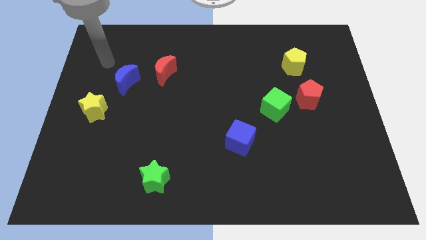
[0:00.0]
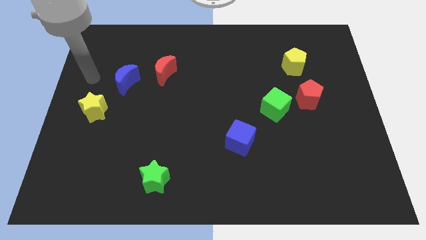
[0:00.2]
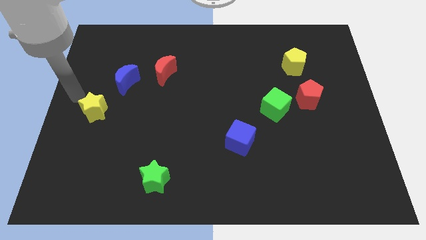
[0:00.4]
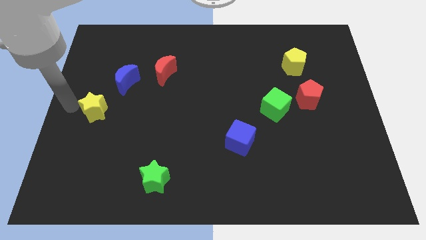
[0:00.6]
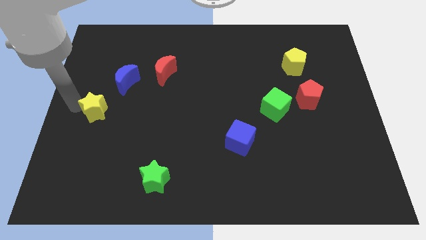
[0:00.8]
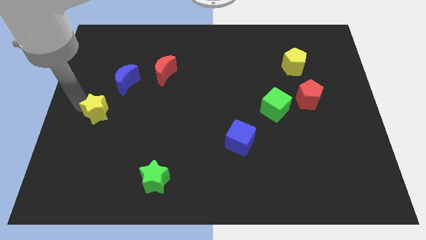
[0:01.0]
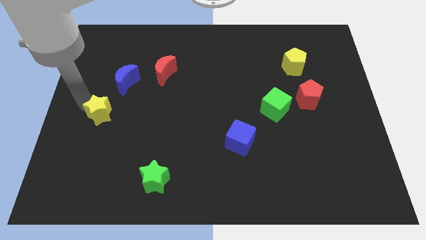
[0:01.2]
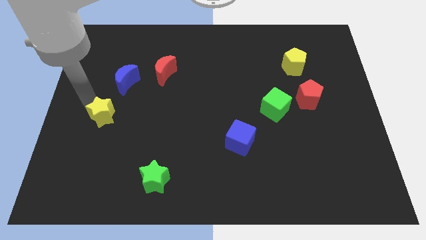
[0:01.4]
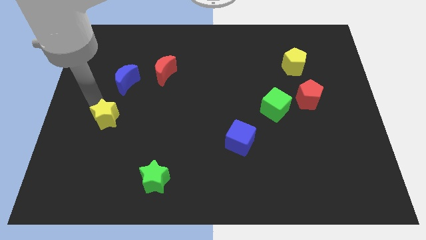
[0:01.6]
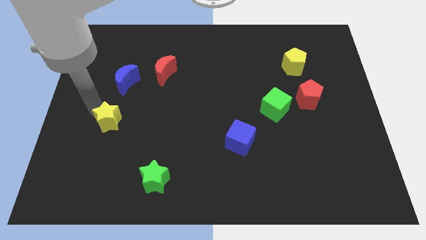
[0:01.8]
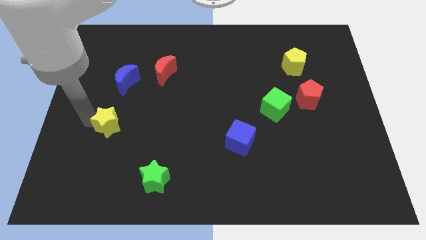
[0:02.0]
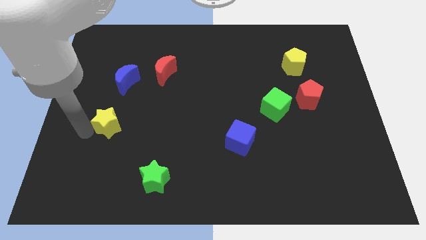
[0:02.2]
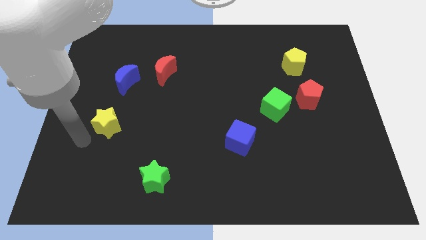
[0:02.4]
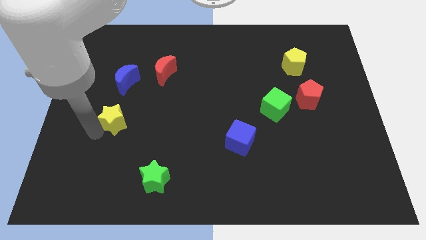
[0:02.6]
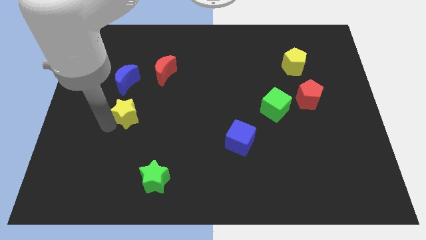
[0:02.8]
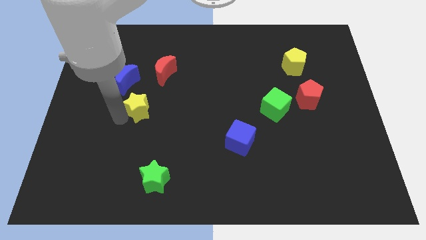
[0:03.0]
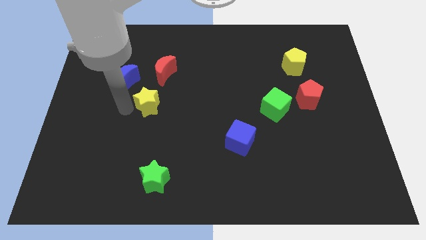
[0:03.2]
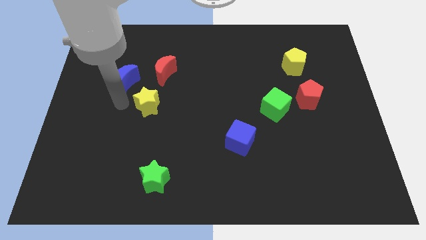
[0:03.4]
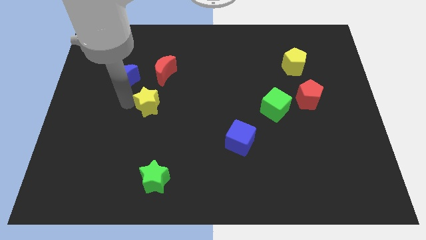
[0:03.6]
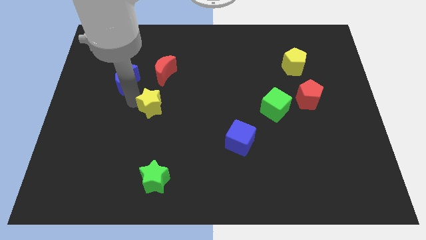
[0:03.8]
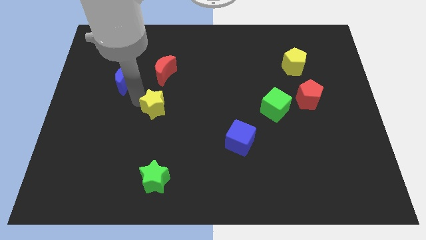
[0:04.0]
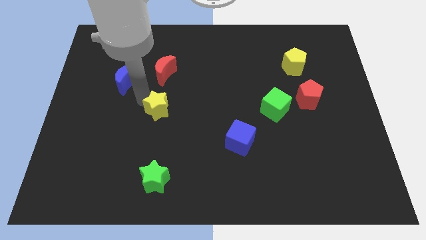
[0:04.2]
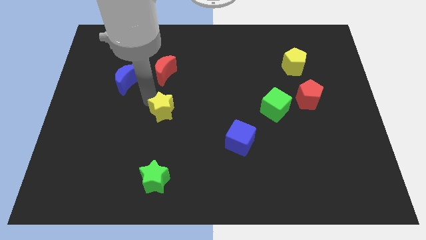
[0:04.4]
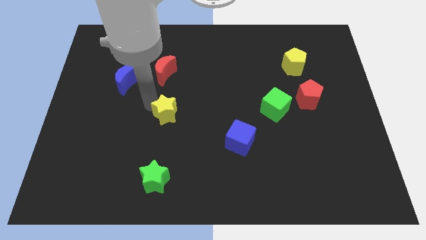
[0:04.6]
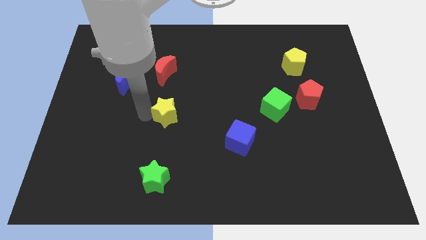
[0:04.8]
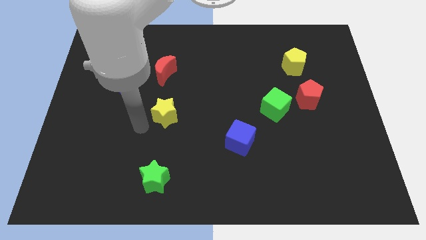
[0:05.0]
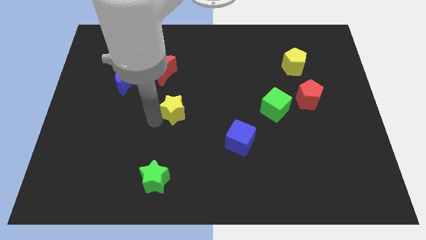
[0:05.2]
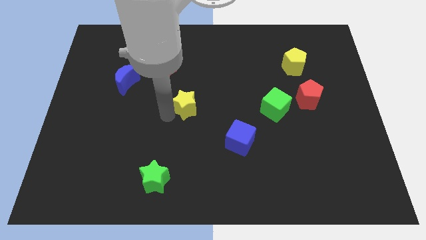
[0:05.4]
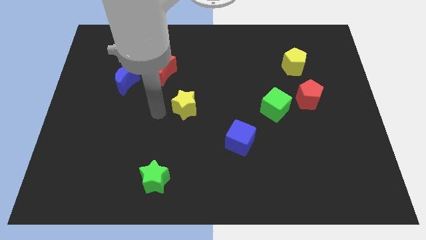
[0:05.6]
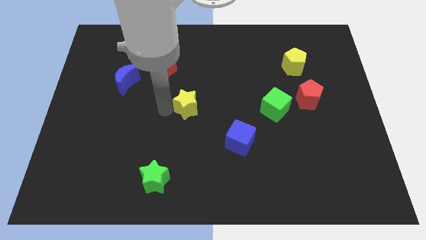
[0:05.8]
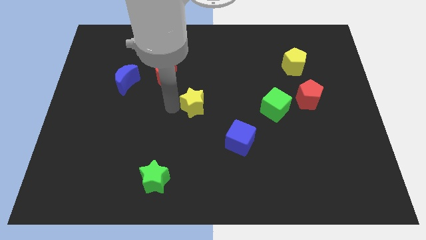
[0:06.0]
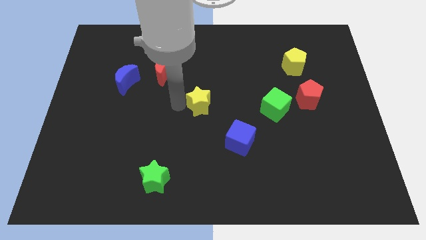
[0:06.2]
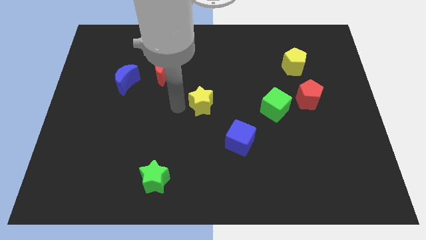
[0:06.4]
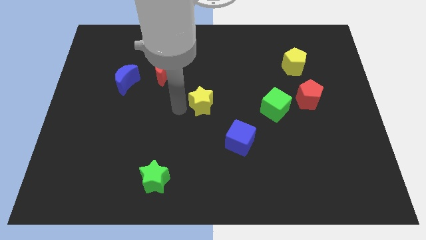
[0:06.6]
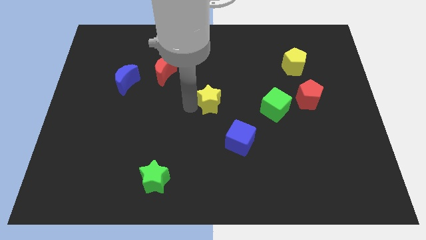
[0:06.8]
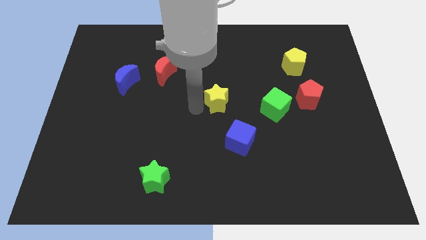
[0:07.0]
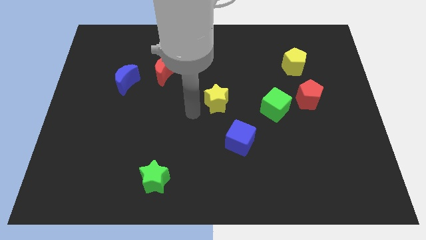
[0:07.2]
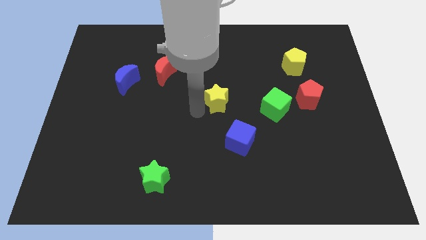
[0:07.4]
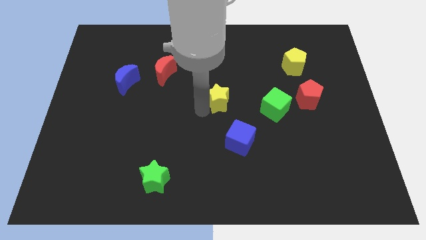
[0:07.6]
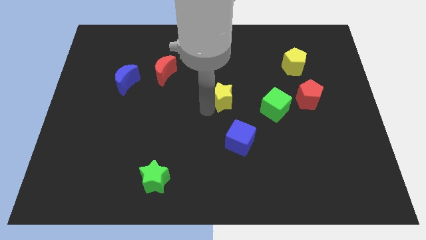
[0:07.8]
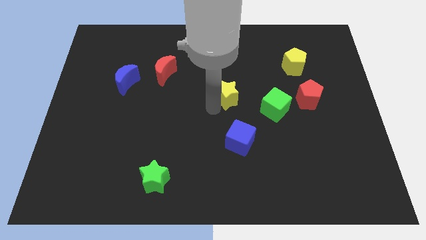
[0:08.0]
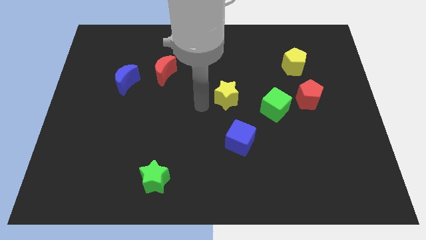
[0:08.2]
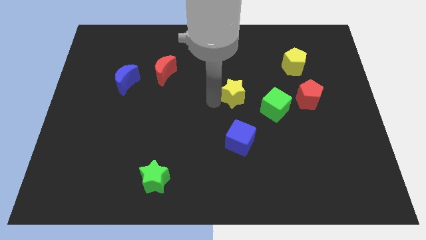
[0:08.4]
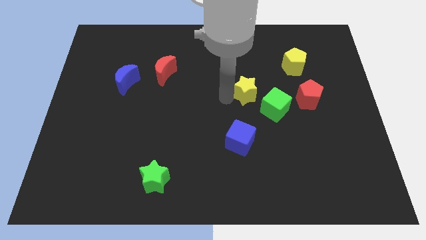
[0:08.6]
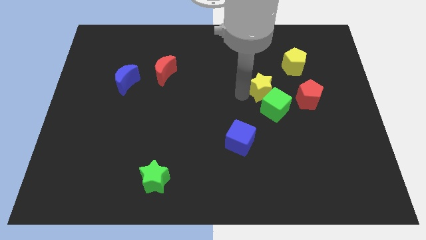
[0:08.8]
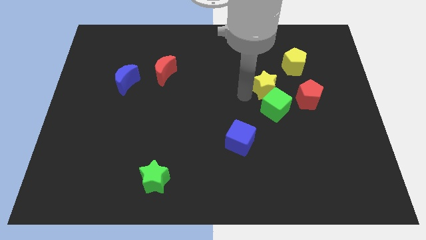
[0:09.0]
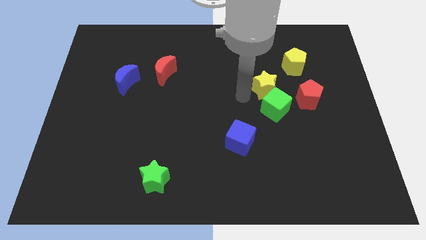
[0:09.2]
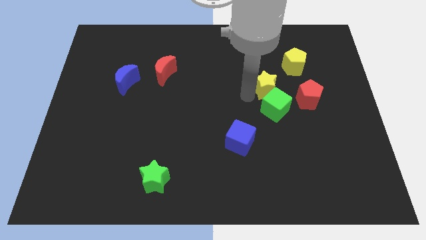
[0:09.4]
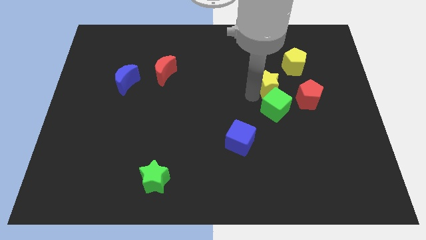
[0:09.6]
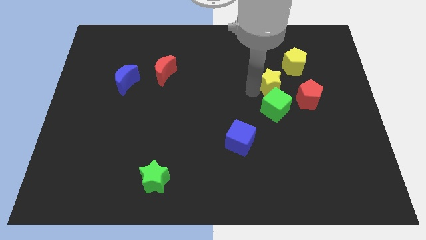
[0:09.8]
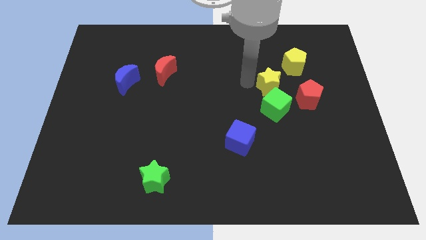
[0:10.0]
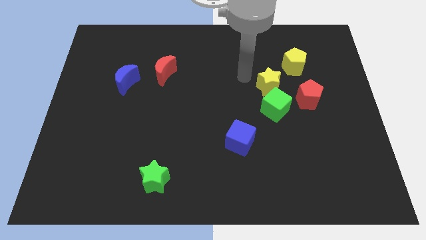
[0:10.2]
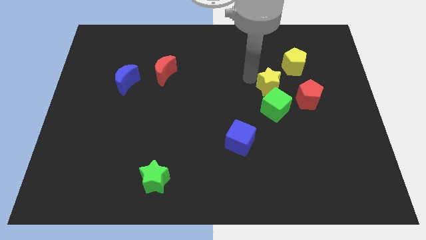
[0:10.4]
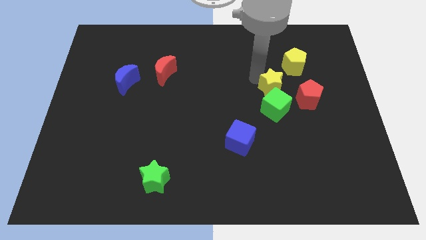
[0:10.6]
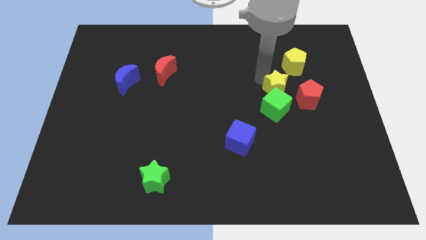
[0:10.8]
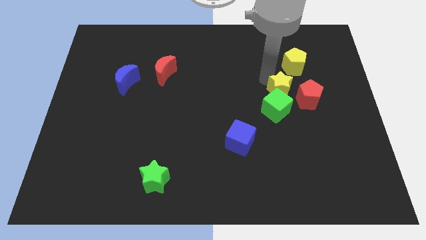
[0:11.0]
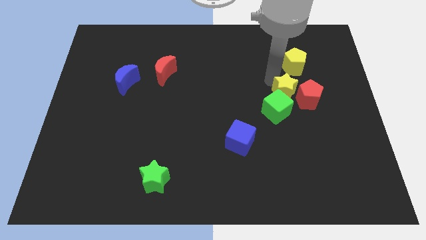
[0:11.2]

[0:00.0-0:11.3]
move the yellow star towards the red pentagon

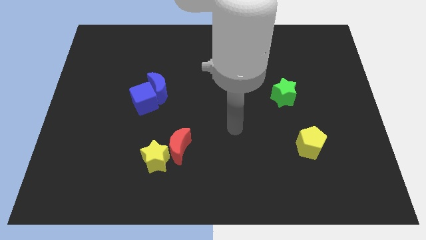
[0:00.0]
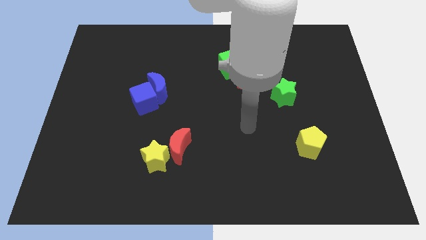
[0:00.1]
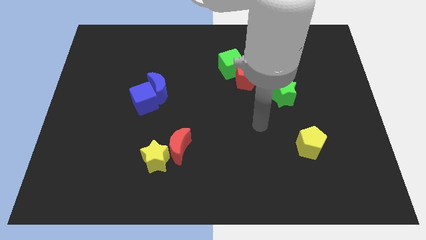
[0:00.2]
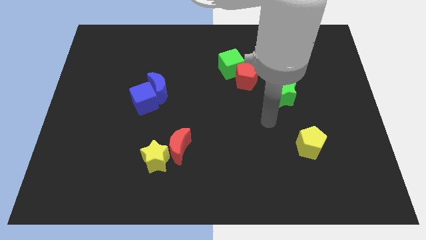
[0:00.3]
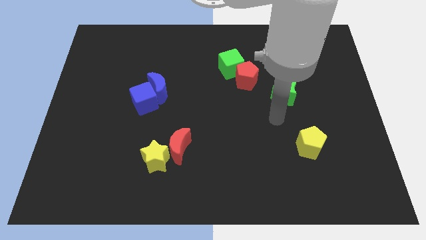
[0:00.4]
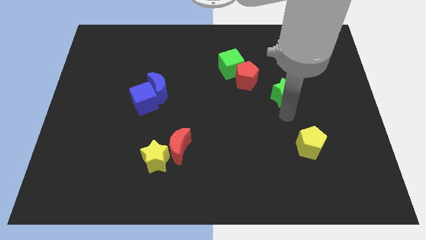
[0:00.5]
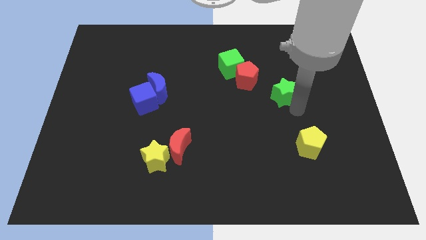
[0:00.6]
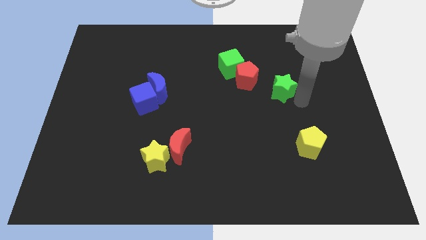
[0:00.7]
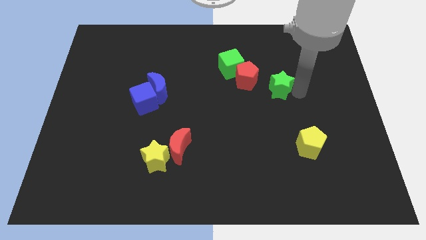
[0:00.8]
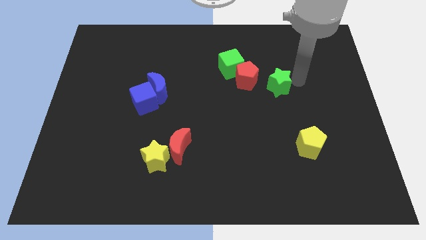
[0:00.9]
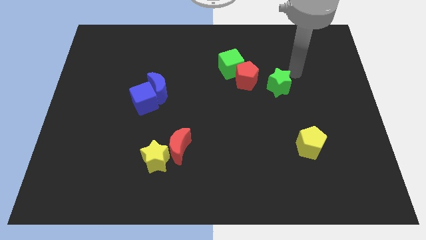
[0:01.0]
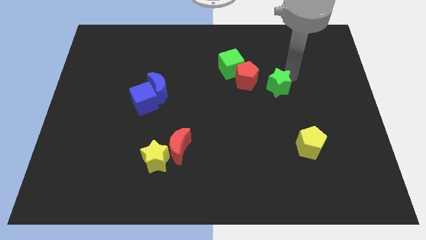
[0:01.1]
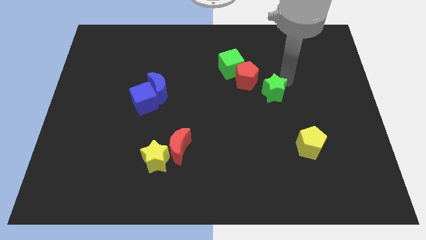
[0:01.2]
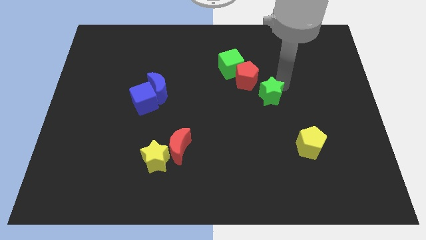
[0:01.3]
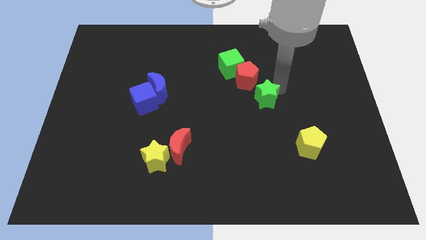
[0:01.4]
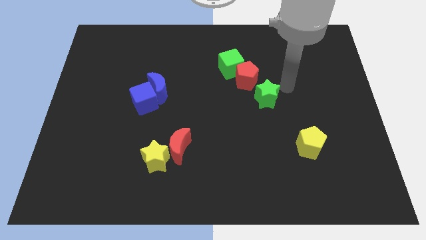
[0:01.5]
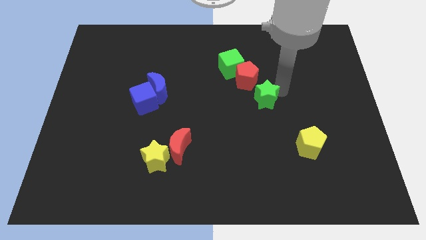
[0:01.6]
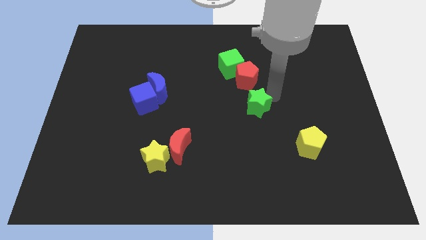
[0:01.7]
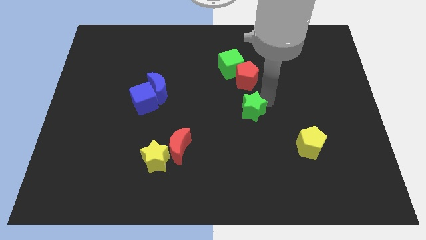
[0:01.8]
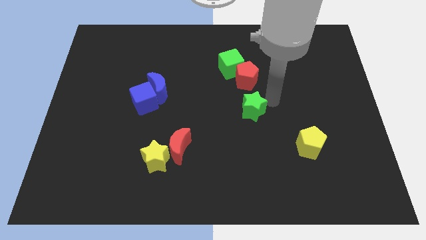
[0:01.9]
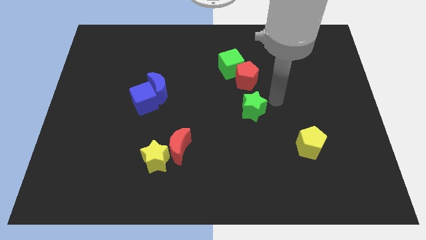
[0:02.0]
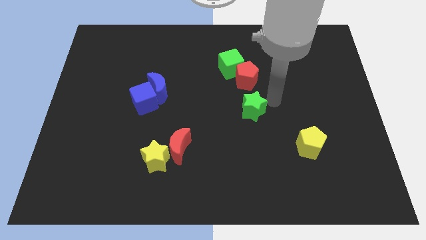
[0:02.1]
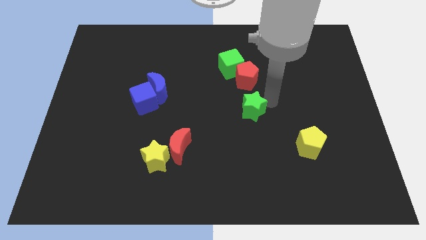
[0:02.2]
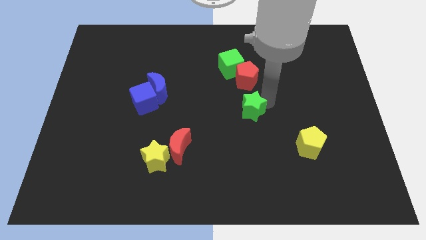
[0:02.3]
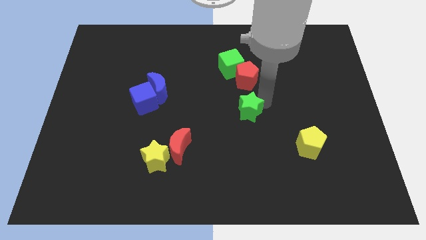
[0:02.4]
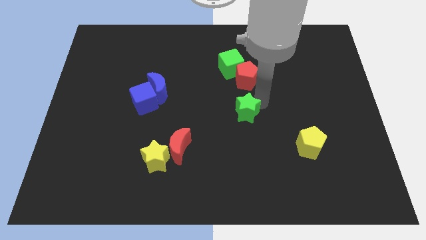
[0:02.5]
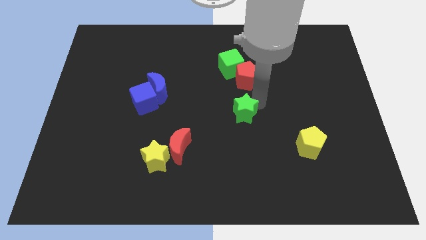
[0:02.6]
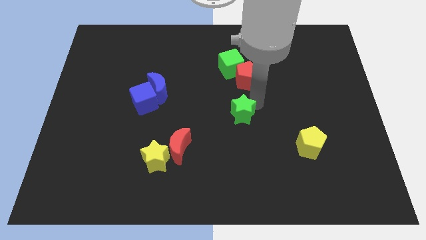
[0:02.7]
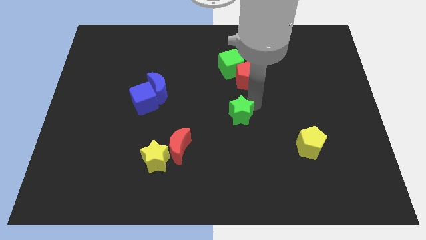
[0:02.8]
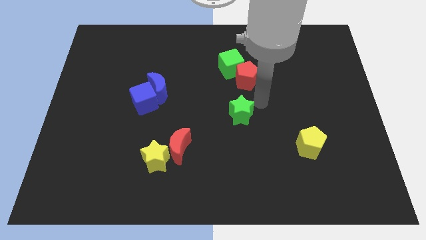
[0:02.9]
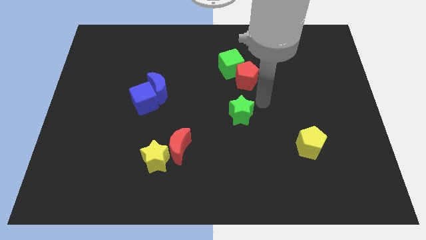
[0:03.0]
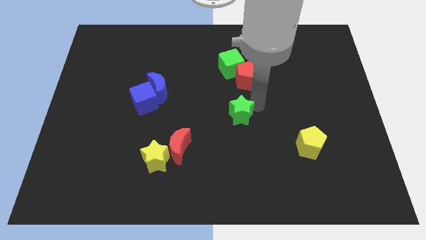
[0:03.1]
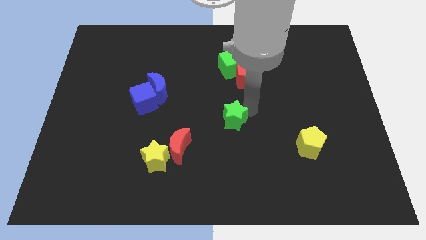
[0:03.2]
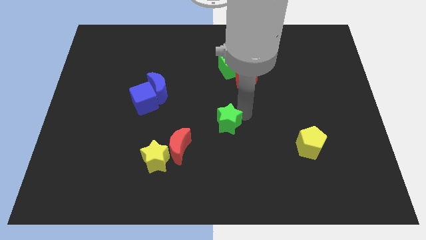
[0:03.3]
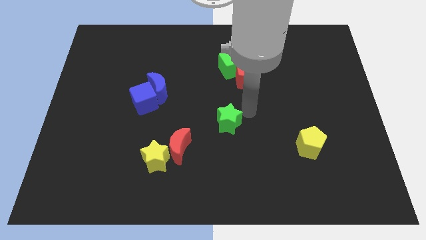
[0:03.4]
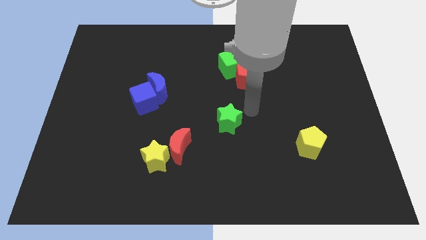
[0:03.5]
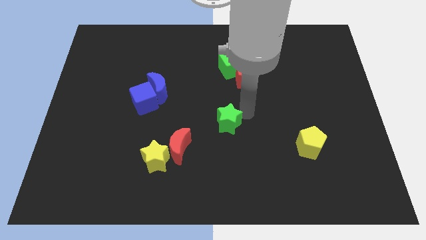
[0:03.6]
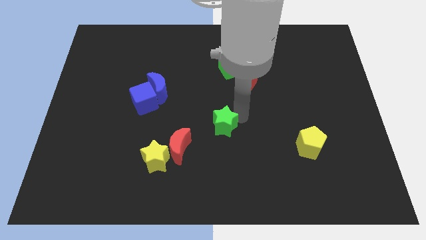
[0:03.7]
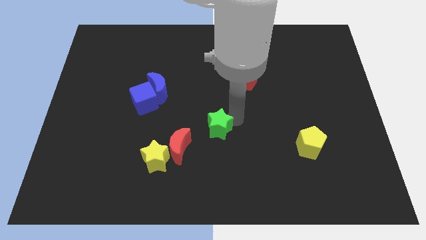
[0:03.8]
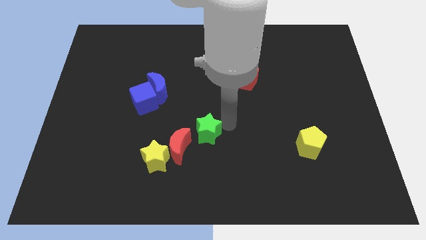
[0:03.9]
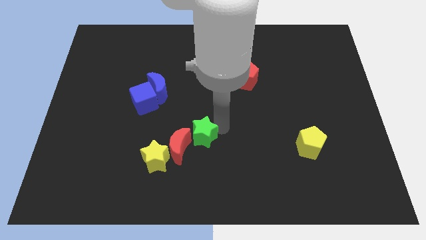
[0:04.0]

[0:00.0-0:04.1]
slide the green star towards the red moon
